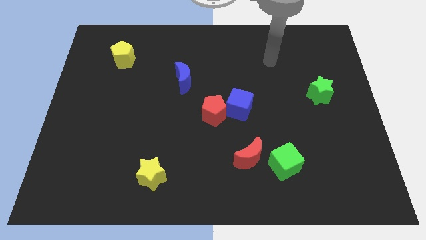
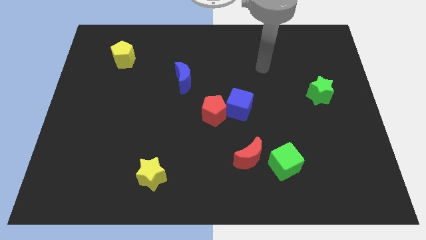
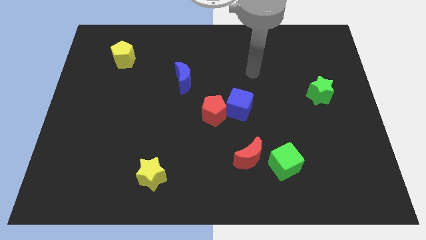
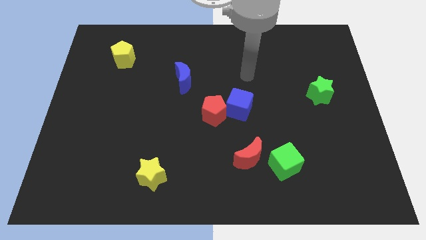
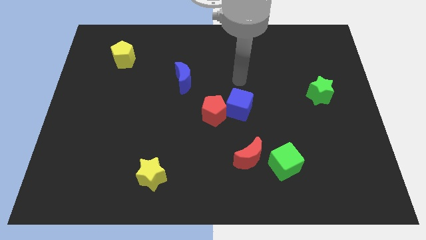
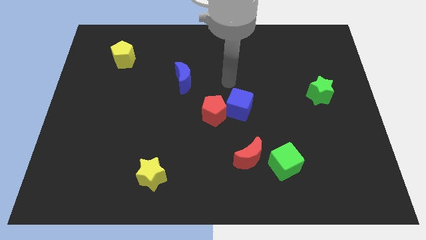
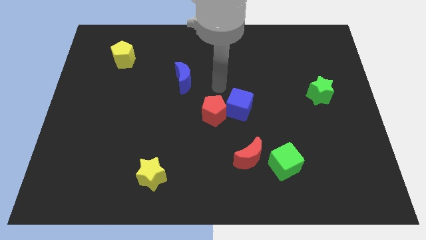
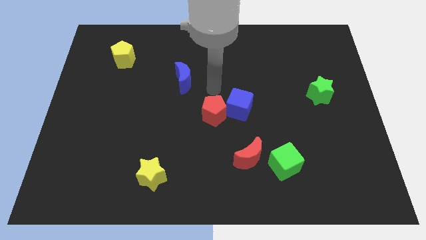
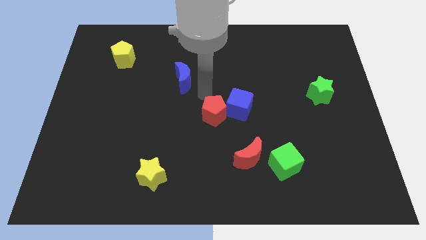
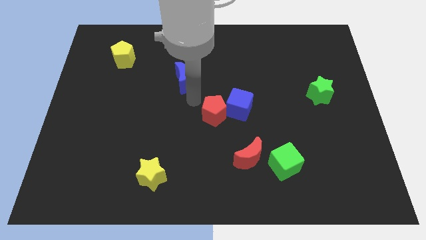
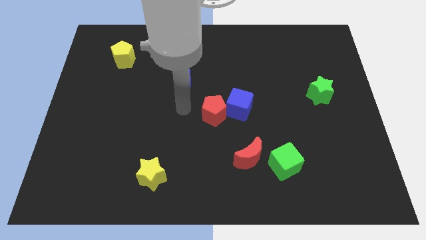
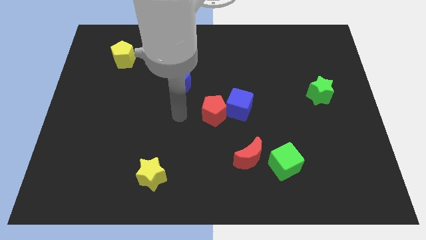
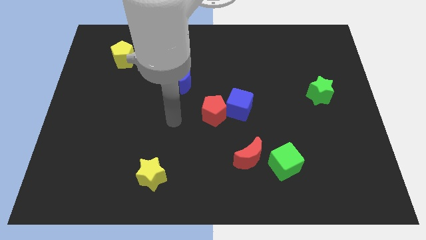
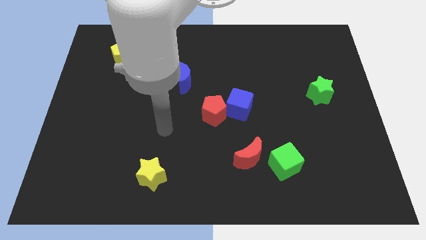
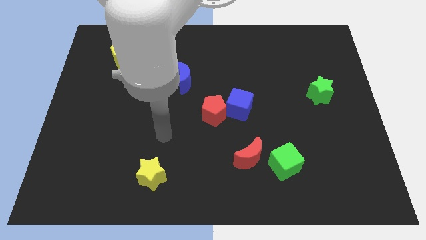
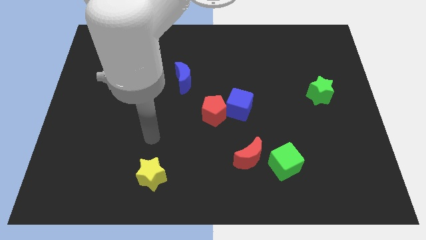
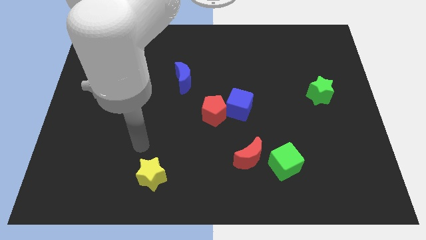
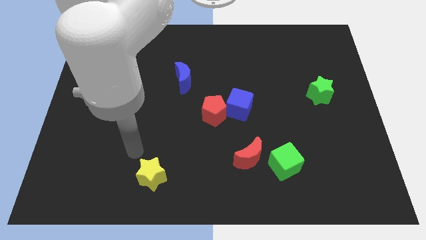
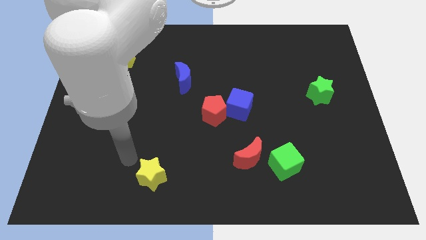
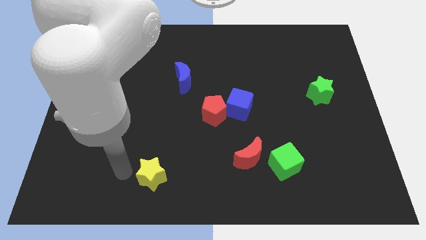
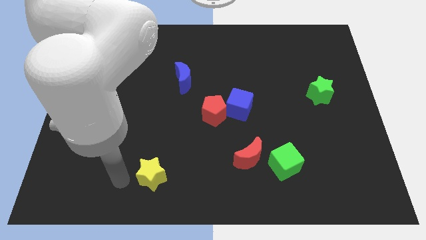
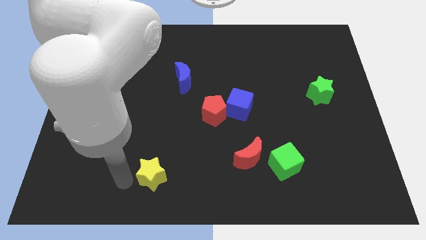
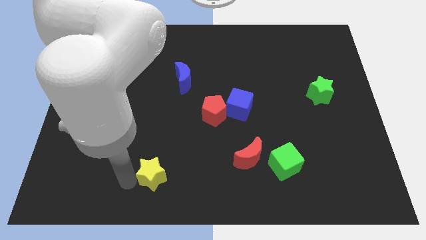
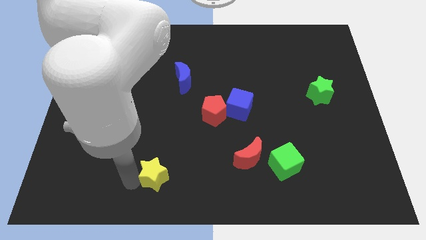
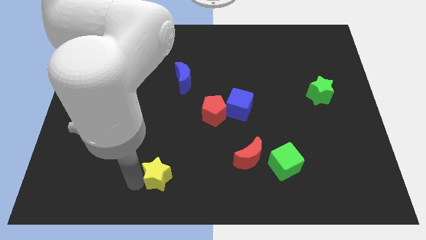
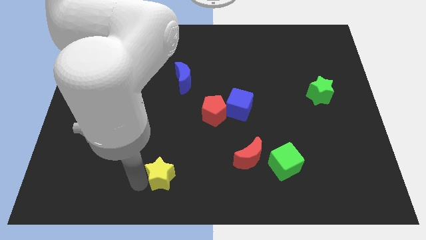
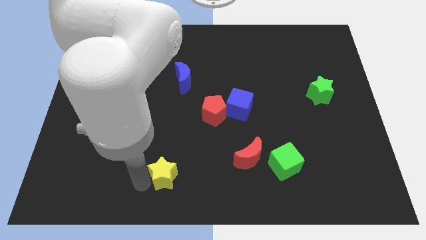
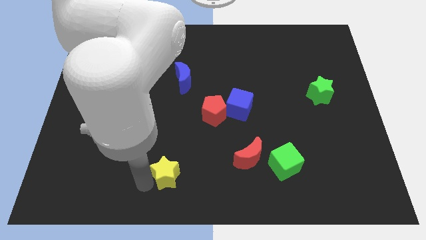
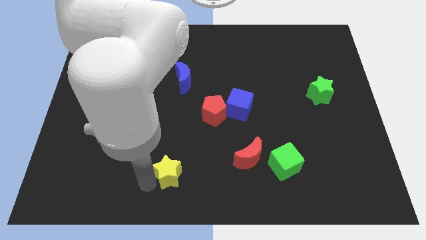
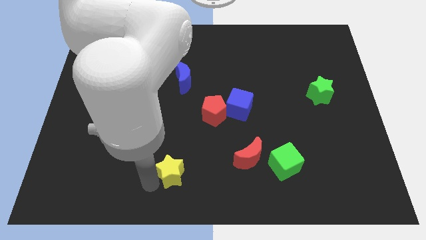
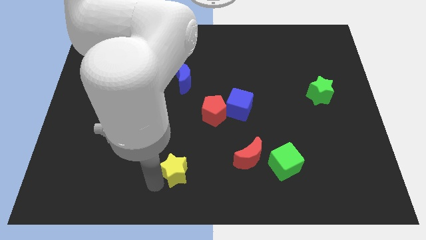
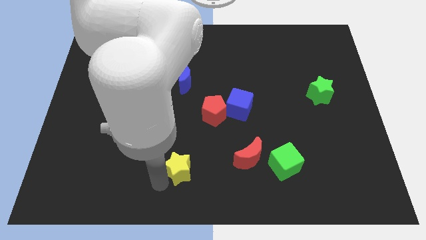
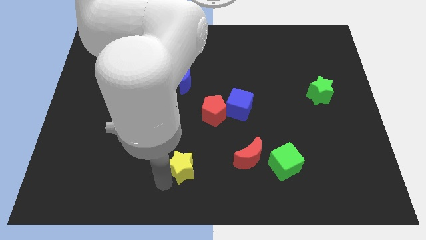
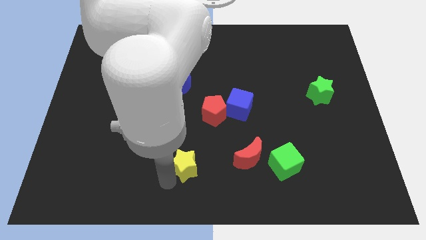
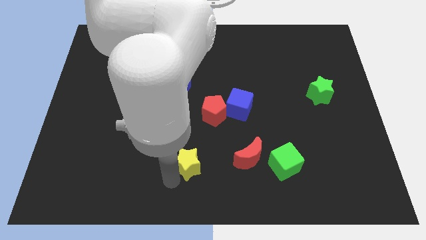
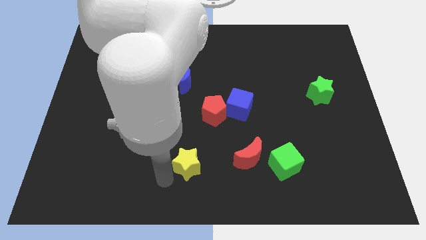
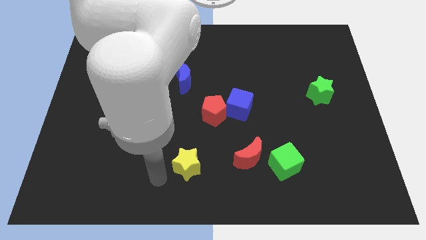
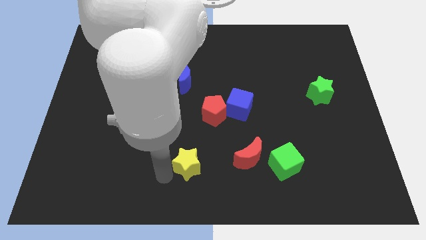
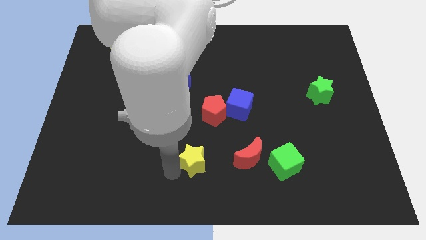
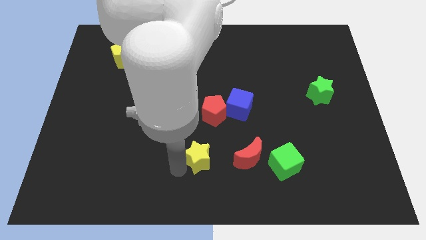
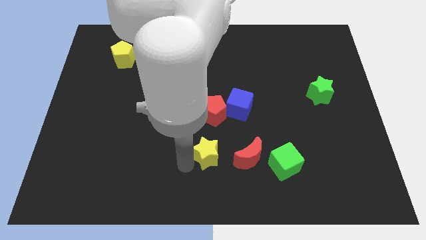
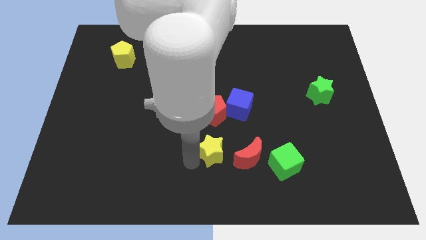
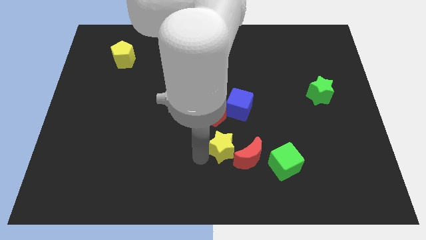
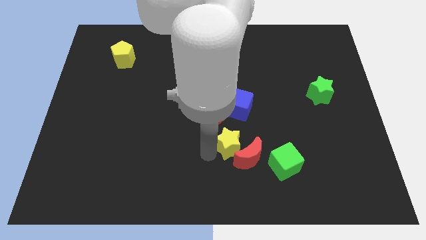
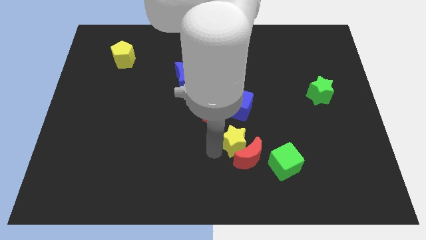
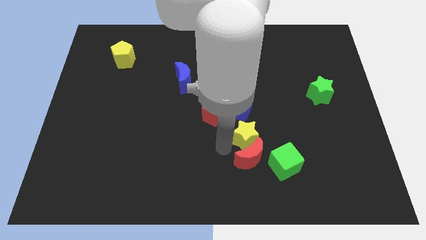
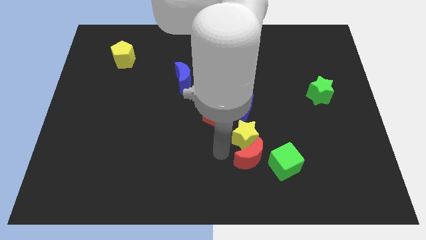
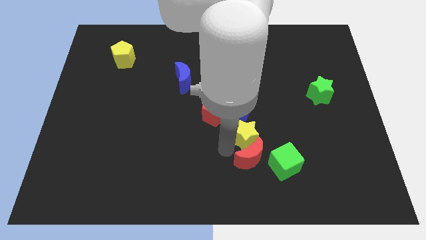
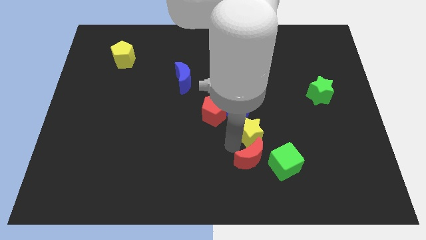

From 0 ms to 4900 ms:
move the yellow star diagonally down and to the right of the blue cube

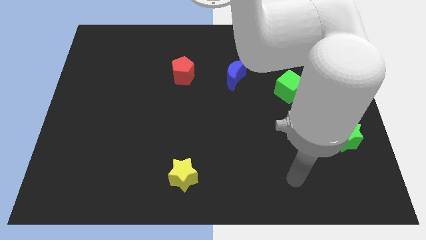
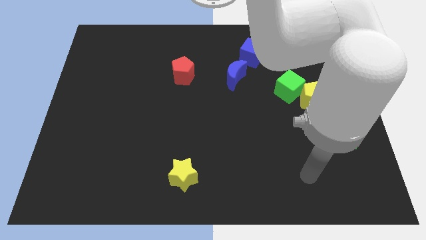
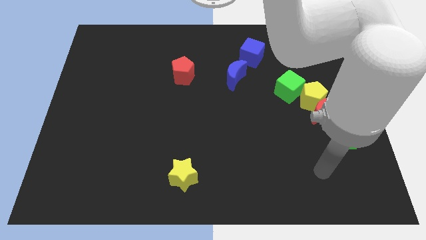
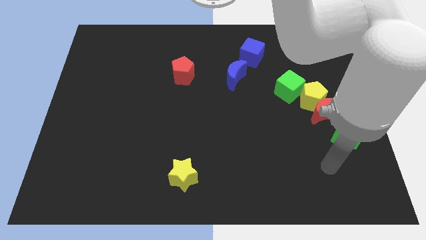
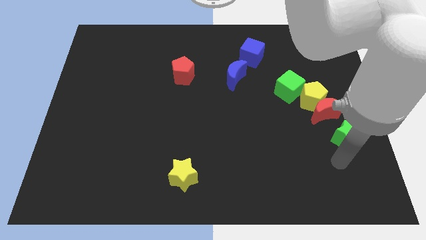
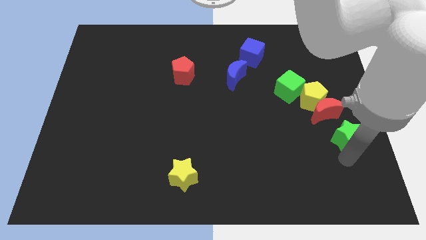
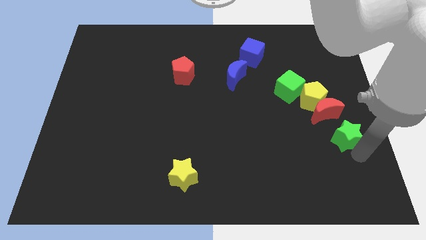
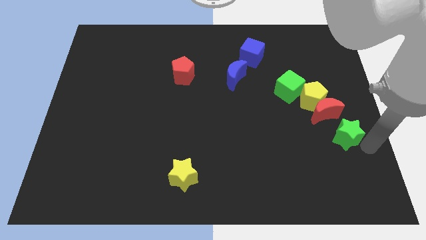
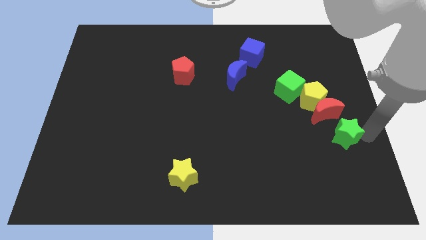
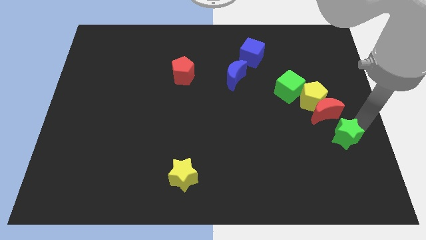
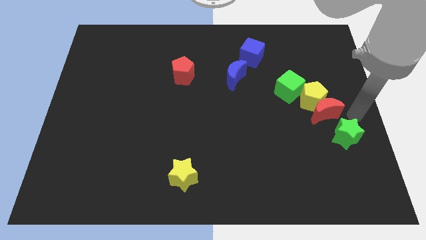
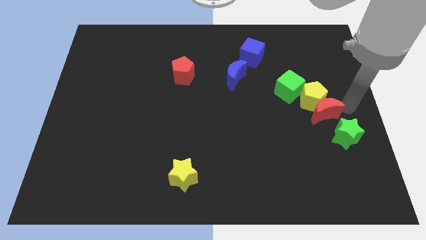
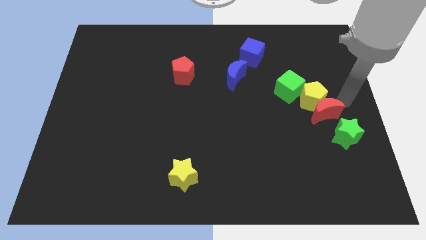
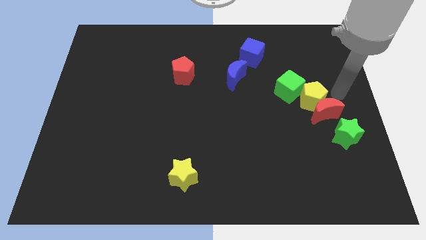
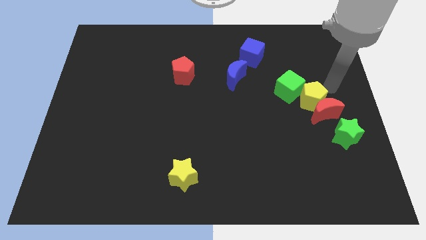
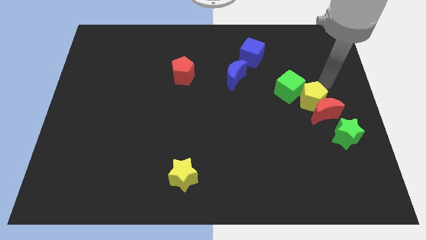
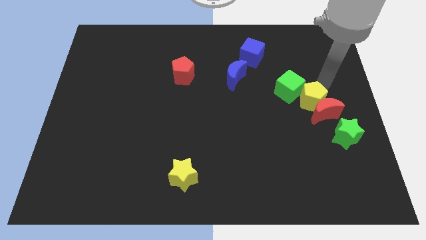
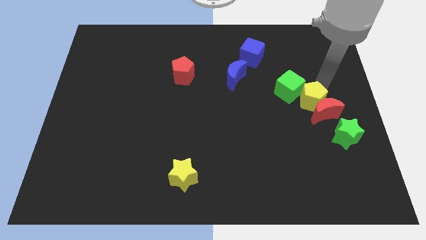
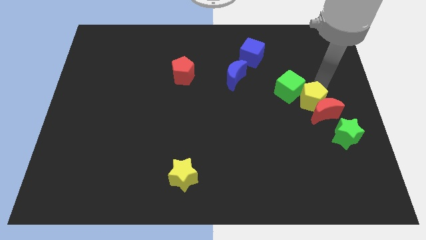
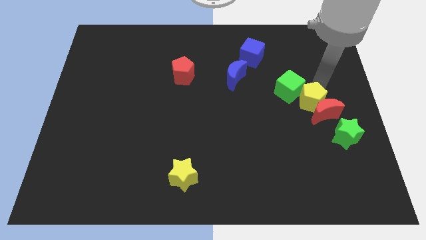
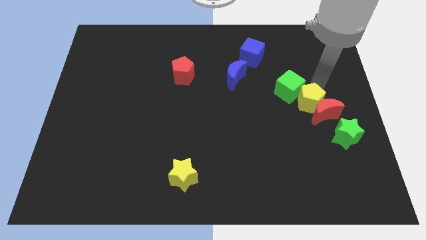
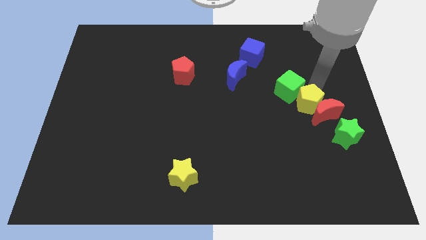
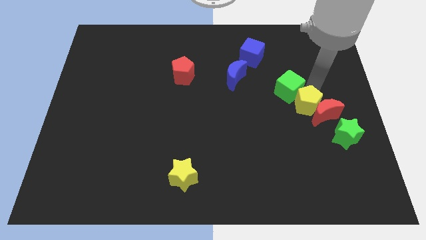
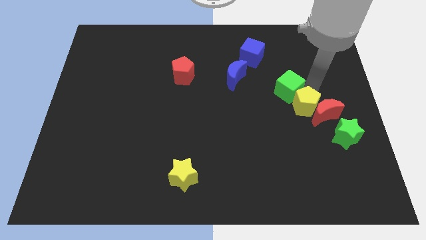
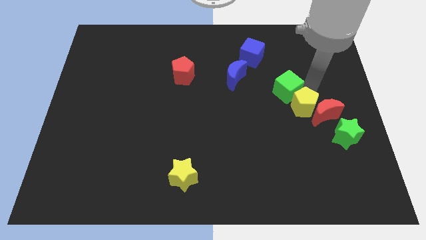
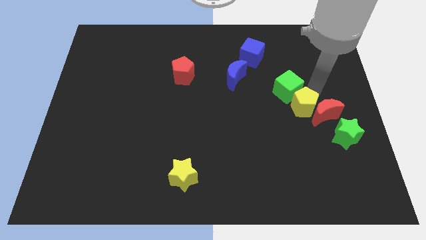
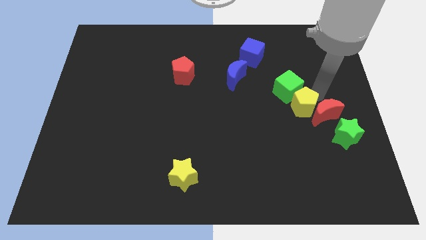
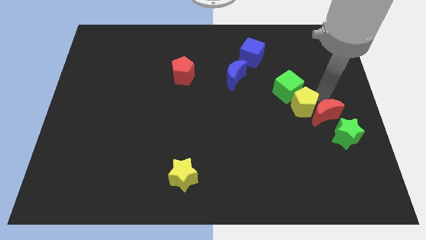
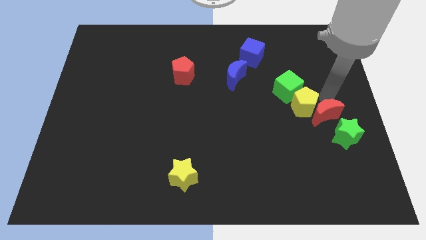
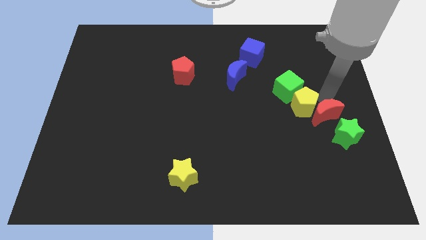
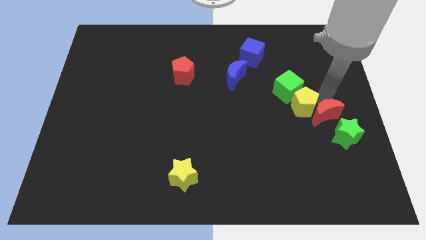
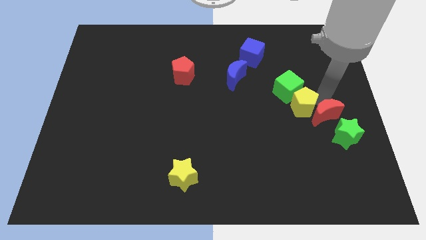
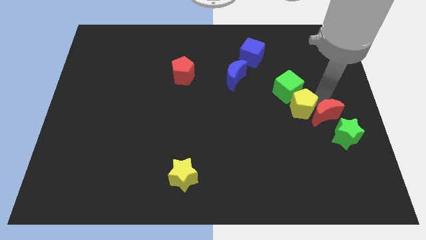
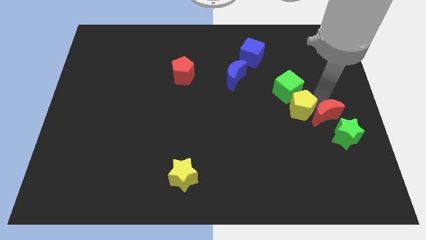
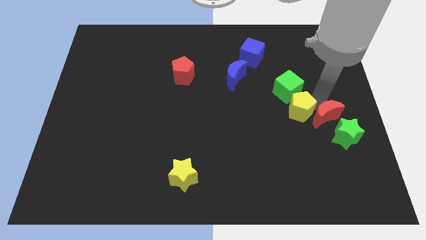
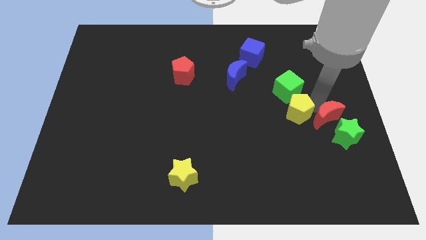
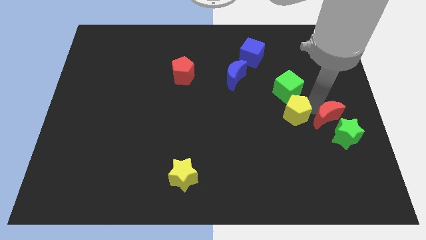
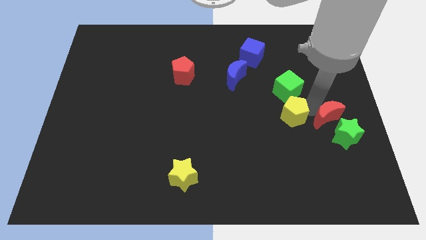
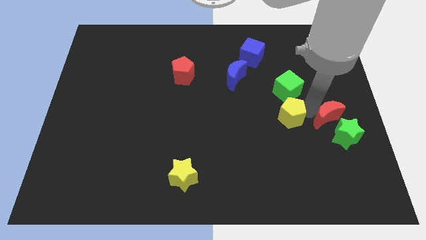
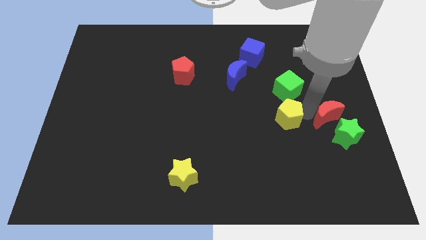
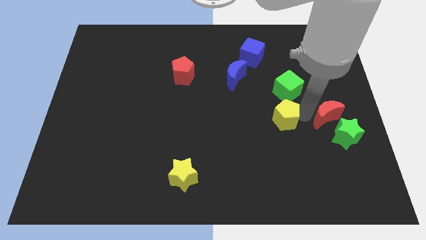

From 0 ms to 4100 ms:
push the yellow pentagon to the bottom left of the green cube
